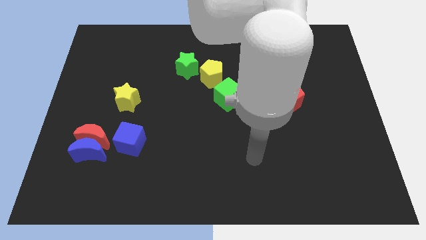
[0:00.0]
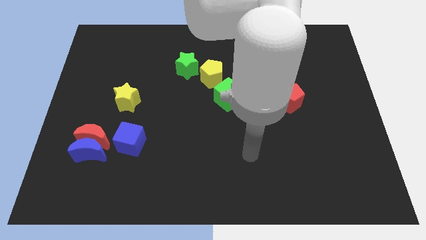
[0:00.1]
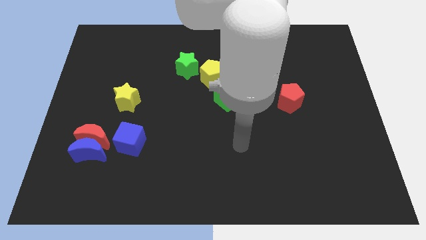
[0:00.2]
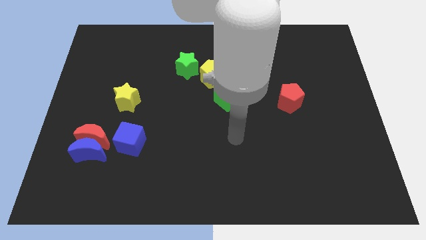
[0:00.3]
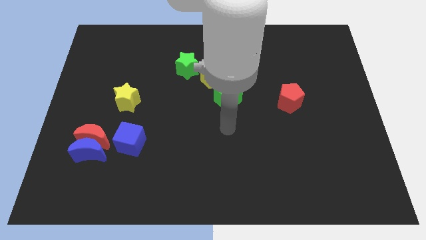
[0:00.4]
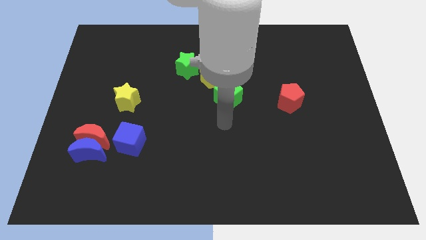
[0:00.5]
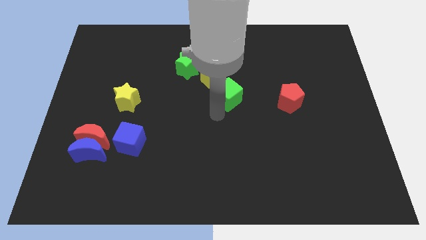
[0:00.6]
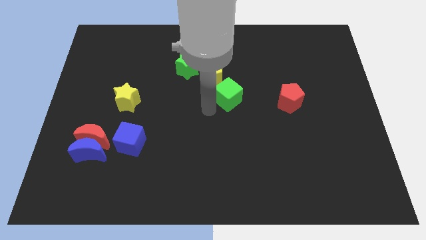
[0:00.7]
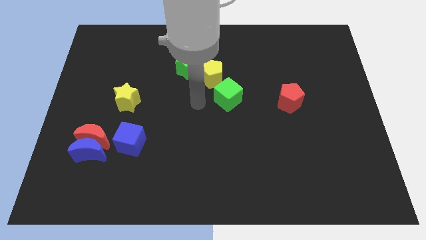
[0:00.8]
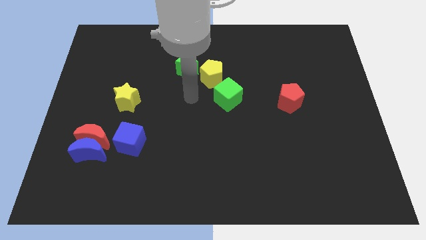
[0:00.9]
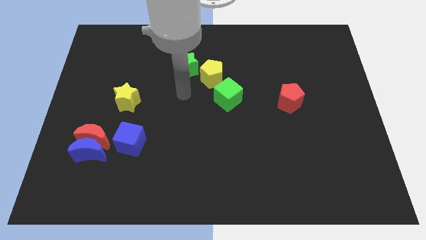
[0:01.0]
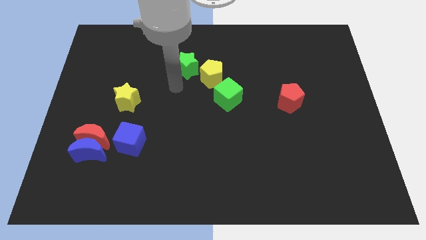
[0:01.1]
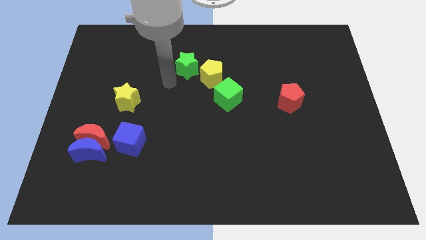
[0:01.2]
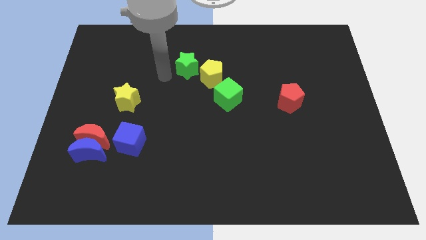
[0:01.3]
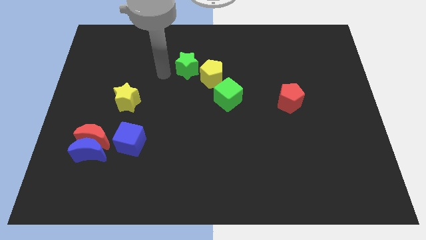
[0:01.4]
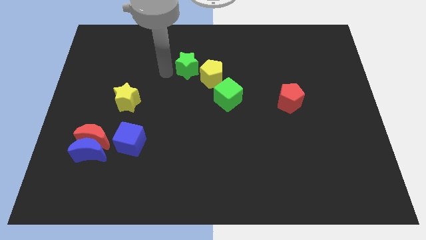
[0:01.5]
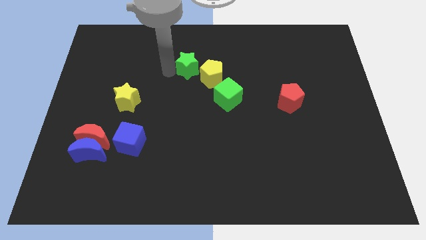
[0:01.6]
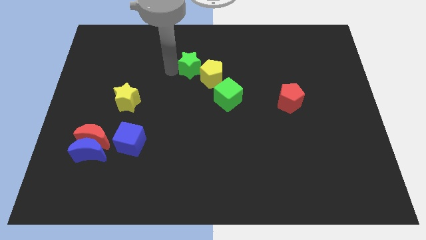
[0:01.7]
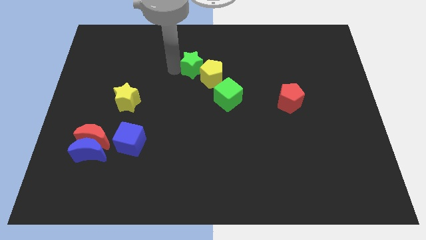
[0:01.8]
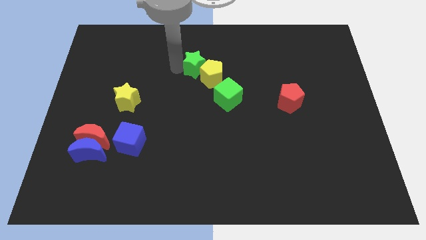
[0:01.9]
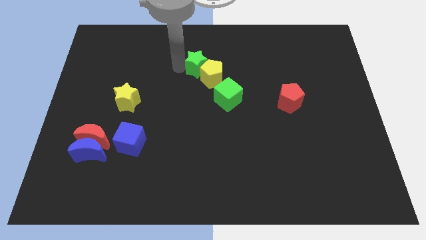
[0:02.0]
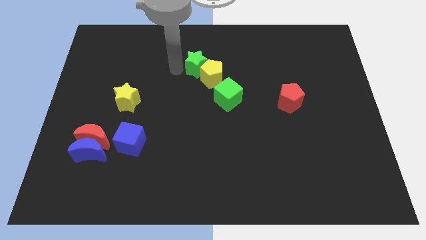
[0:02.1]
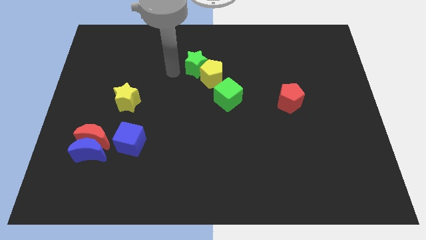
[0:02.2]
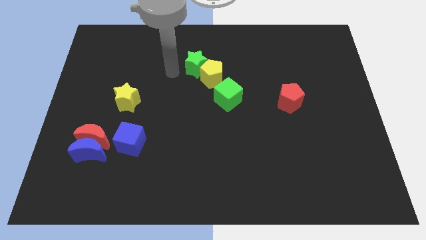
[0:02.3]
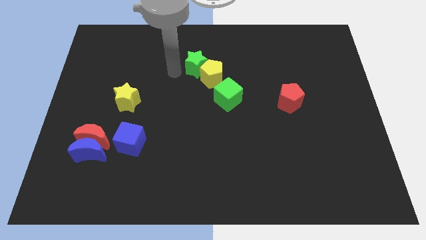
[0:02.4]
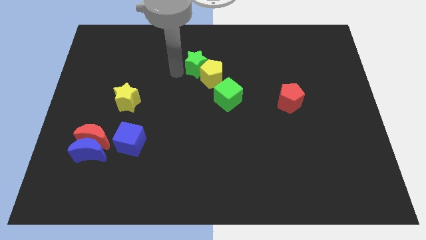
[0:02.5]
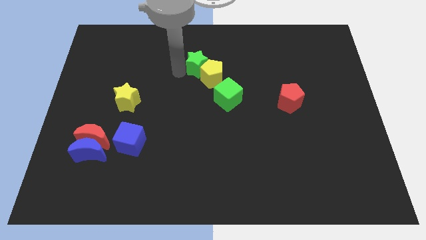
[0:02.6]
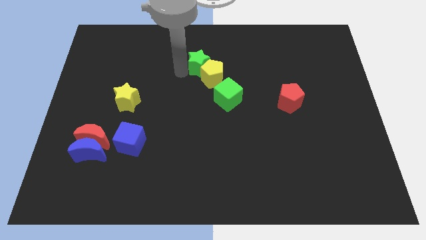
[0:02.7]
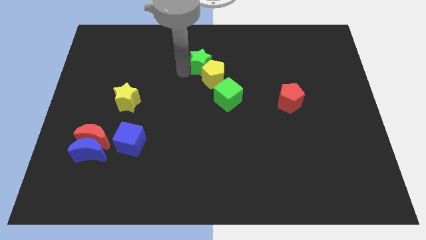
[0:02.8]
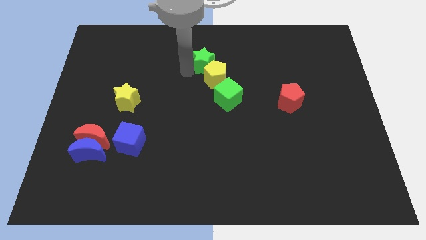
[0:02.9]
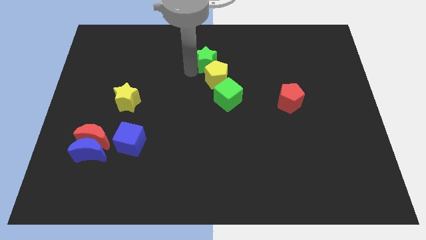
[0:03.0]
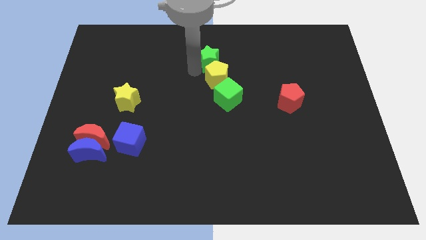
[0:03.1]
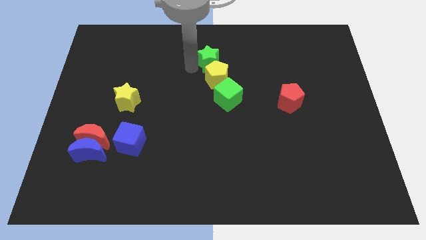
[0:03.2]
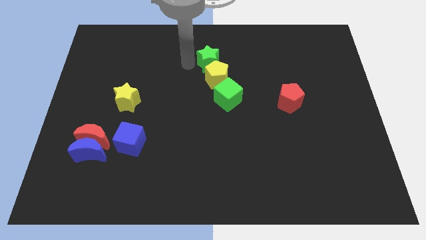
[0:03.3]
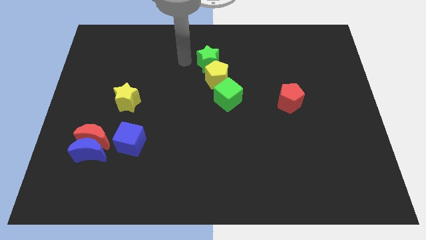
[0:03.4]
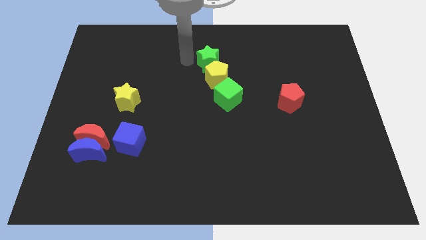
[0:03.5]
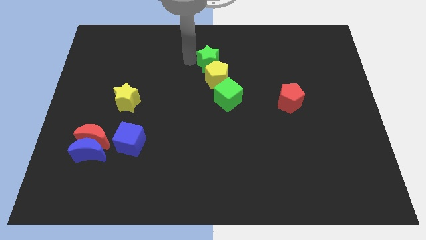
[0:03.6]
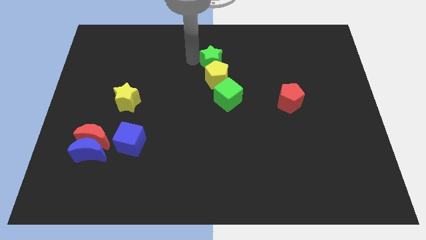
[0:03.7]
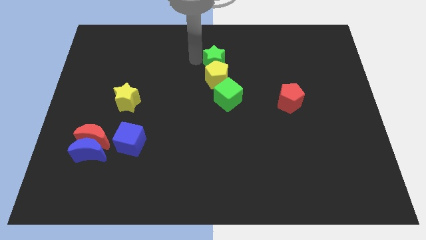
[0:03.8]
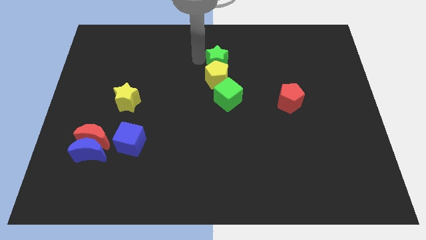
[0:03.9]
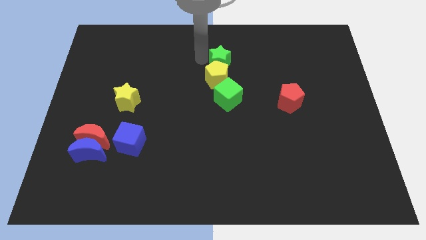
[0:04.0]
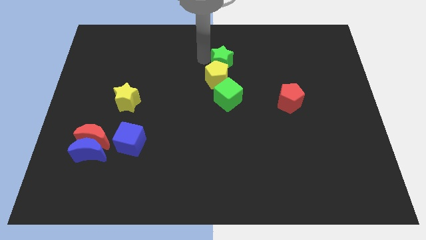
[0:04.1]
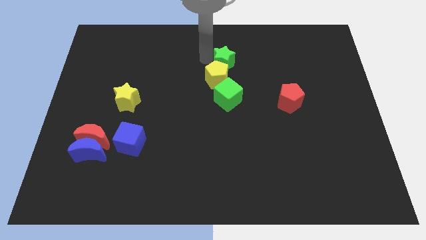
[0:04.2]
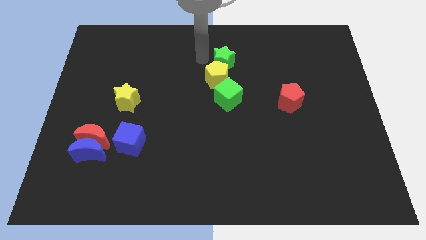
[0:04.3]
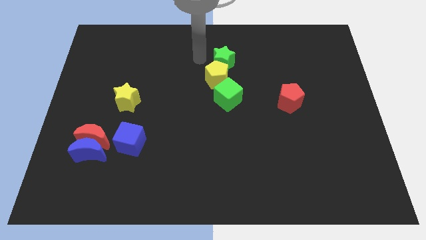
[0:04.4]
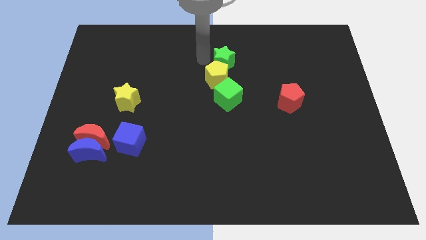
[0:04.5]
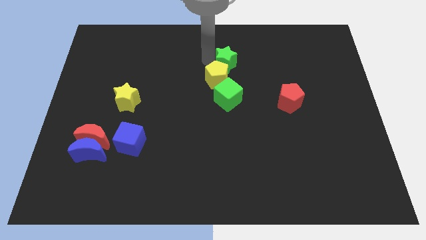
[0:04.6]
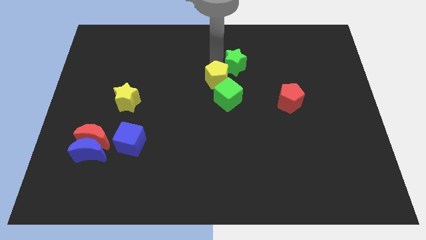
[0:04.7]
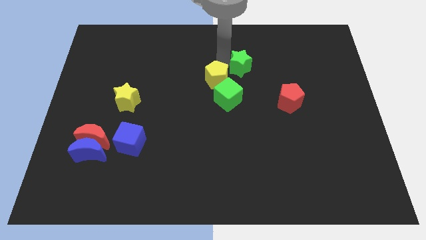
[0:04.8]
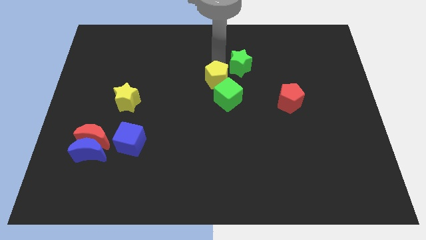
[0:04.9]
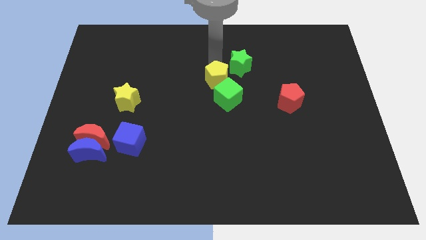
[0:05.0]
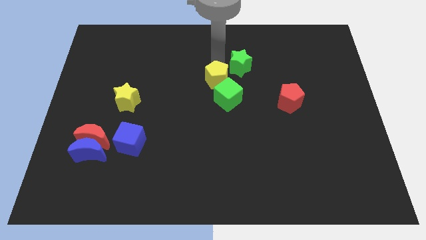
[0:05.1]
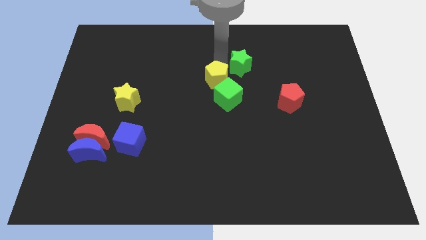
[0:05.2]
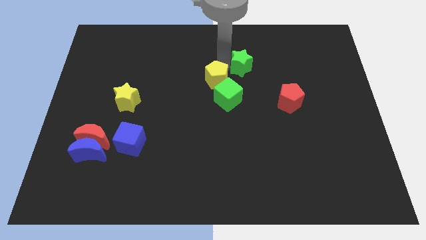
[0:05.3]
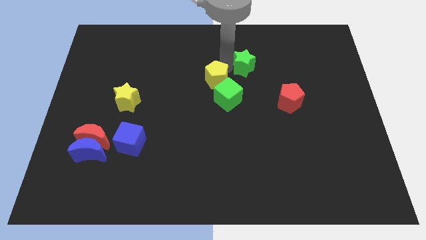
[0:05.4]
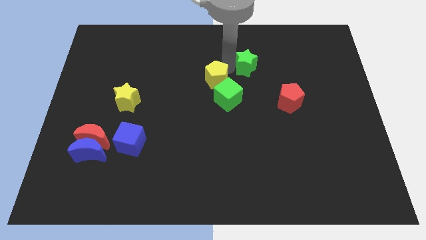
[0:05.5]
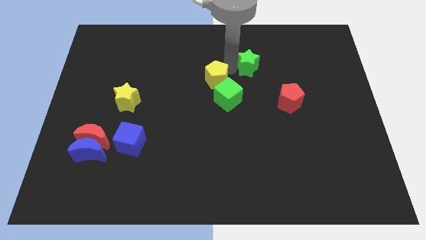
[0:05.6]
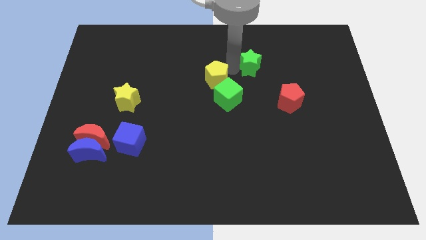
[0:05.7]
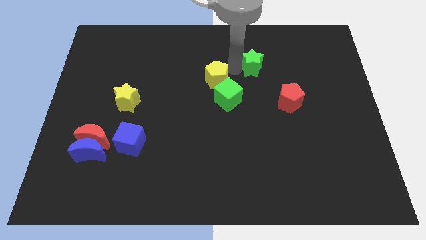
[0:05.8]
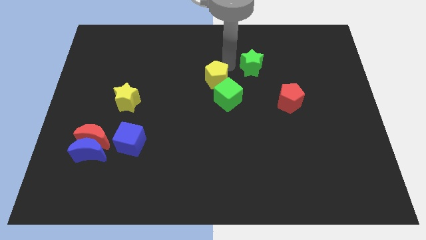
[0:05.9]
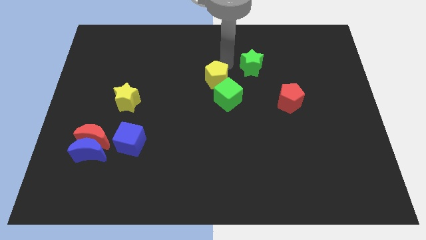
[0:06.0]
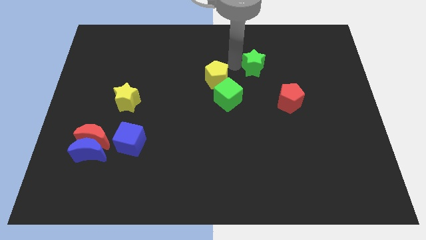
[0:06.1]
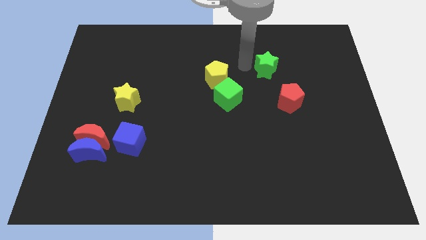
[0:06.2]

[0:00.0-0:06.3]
push the green star right

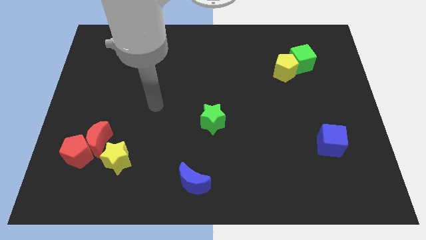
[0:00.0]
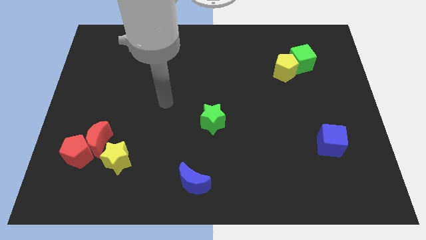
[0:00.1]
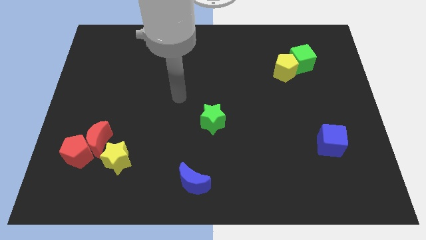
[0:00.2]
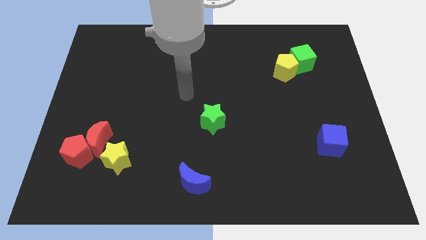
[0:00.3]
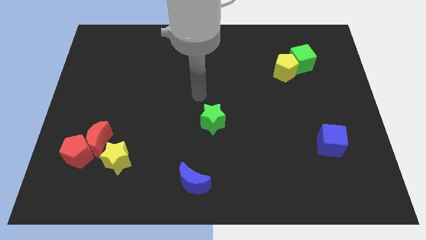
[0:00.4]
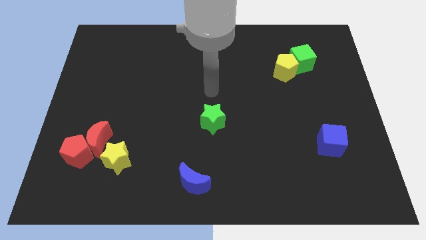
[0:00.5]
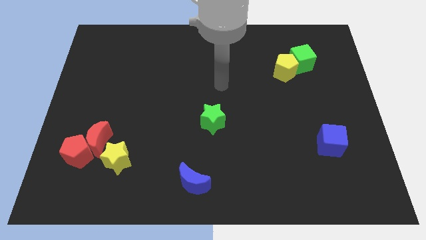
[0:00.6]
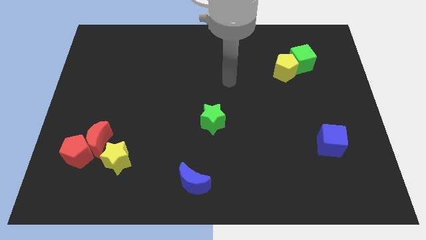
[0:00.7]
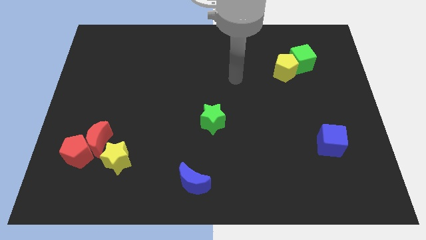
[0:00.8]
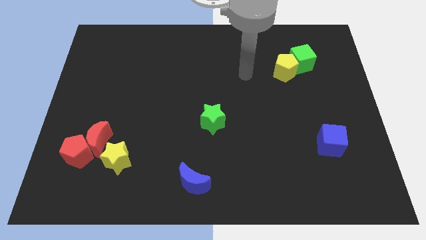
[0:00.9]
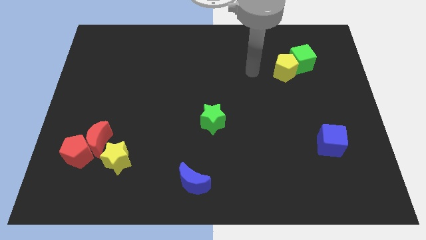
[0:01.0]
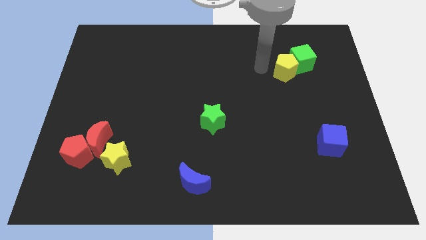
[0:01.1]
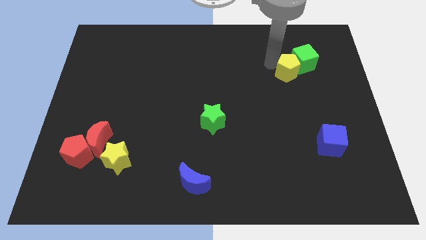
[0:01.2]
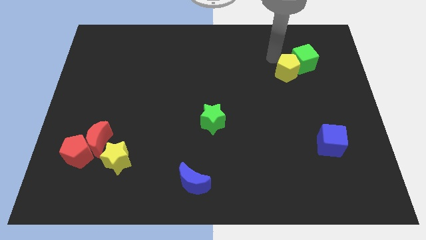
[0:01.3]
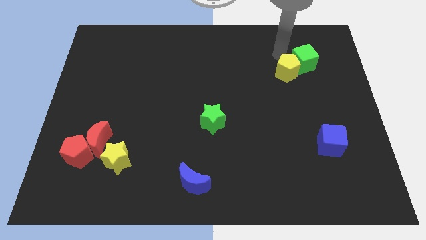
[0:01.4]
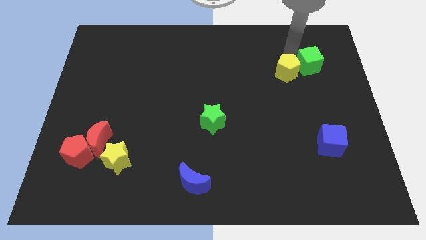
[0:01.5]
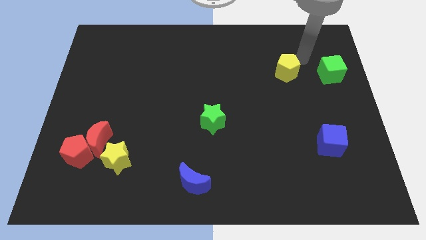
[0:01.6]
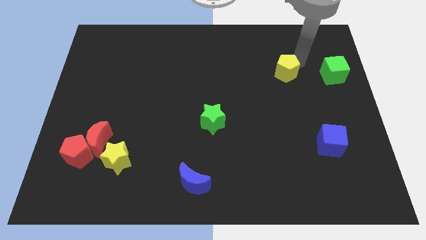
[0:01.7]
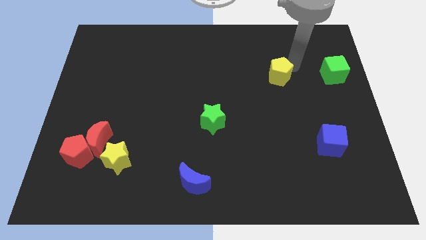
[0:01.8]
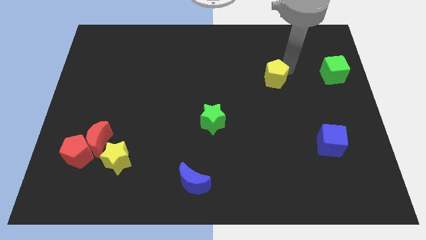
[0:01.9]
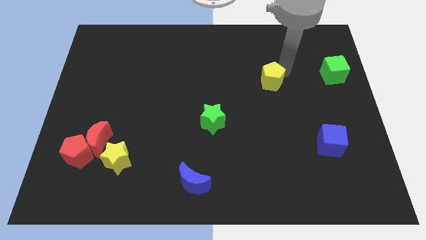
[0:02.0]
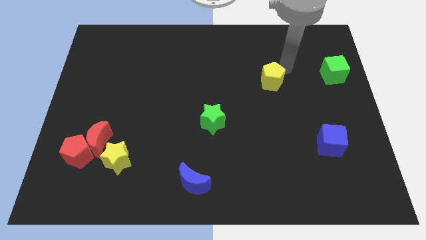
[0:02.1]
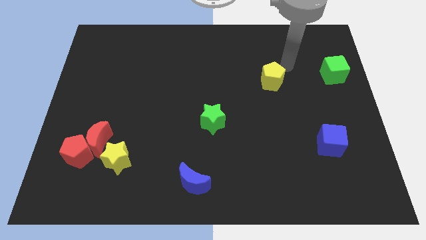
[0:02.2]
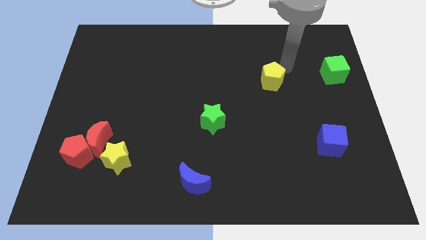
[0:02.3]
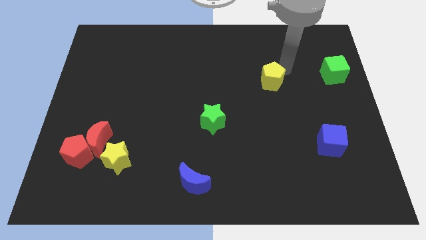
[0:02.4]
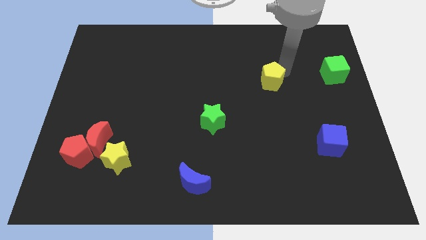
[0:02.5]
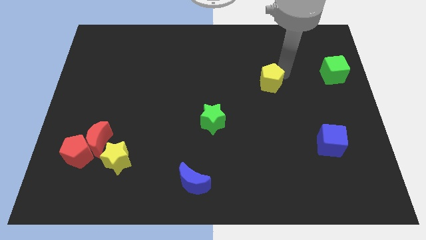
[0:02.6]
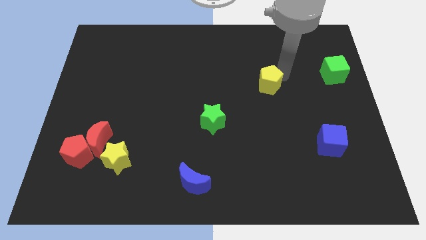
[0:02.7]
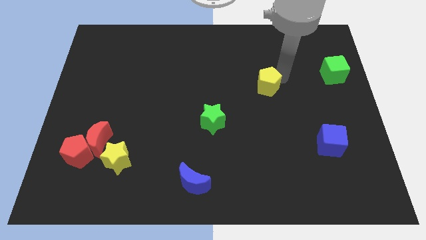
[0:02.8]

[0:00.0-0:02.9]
slightly move the yellow pentagon down and left diagonally
